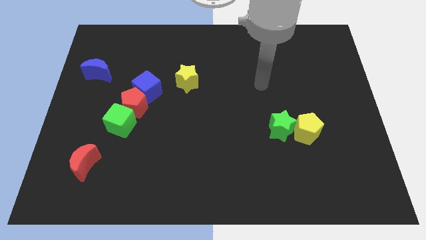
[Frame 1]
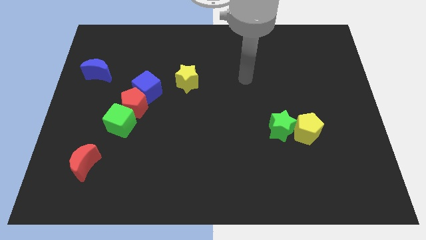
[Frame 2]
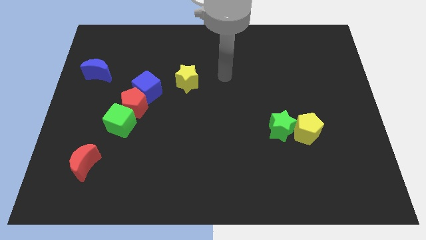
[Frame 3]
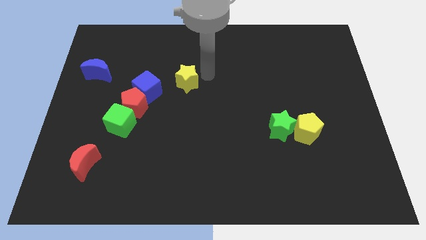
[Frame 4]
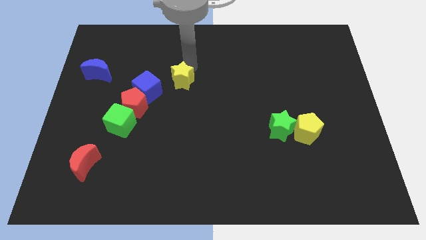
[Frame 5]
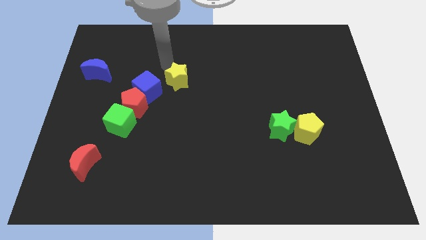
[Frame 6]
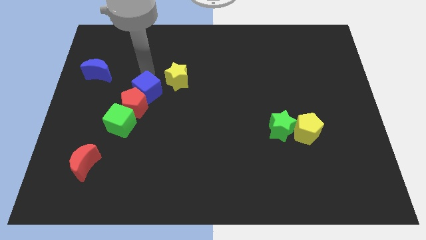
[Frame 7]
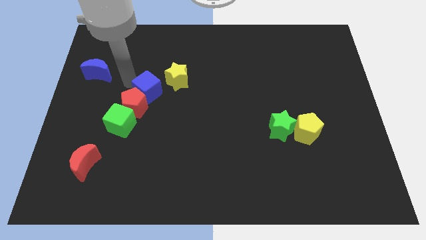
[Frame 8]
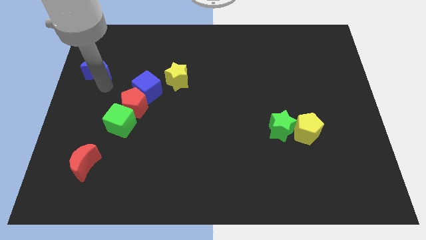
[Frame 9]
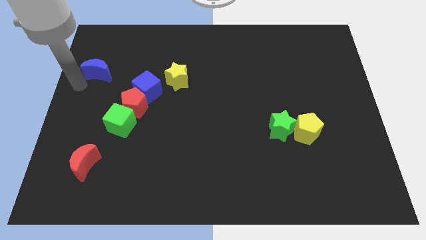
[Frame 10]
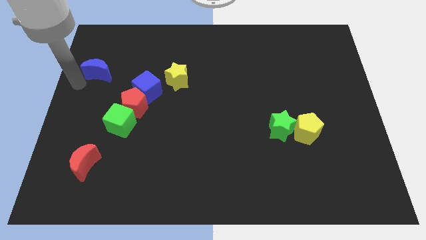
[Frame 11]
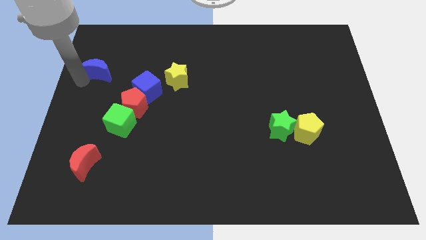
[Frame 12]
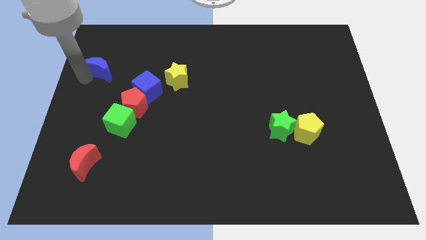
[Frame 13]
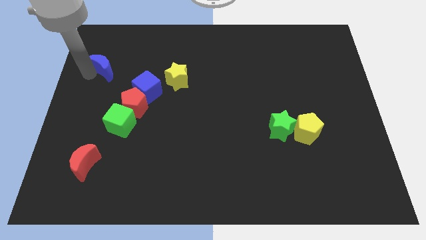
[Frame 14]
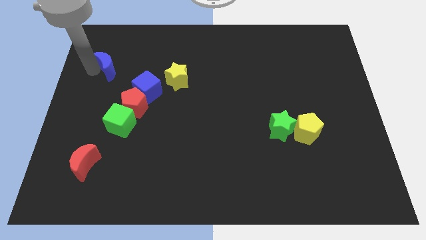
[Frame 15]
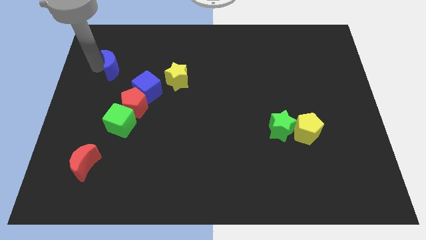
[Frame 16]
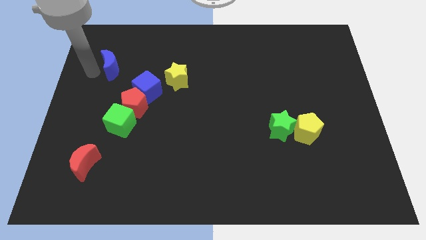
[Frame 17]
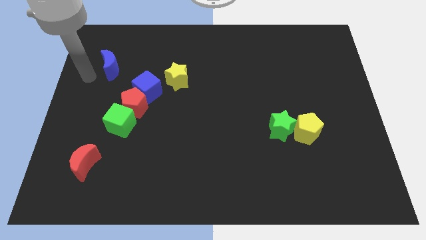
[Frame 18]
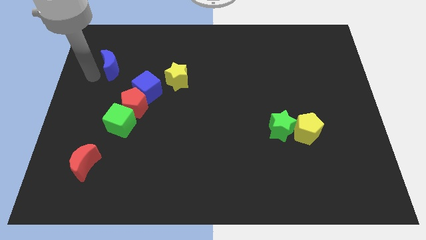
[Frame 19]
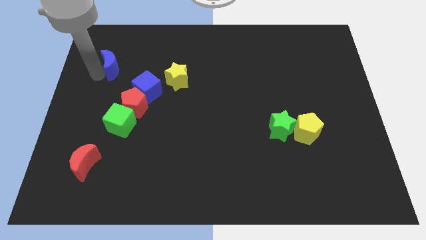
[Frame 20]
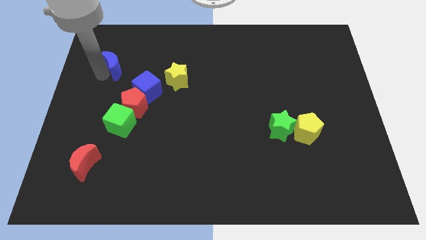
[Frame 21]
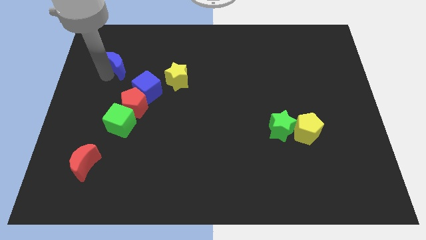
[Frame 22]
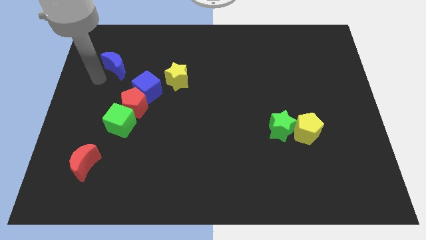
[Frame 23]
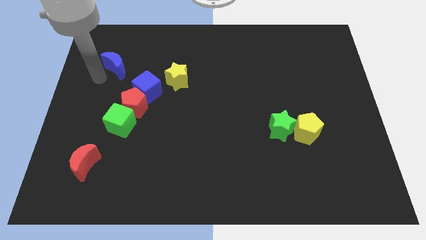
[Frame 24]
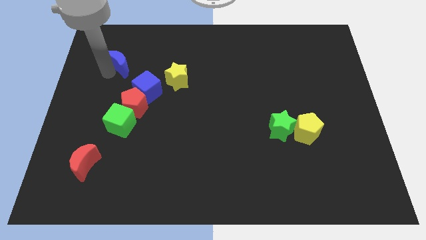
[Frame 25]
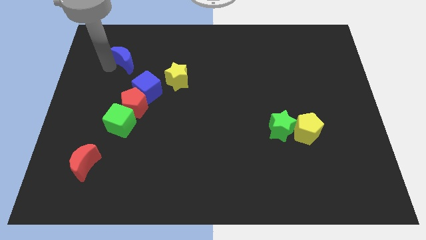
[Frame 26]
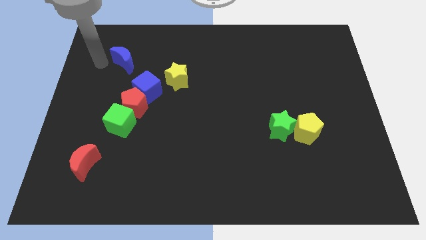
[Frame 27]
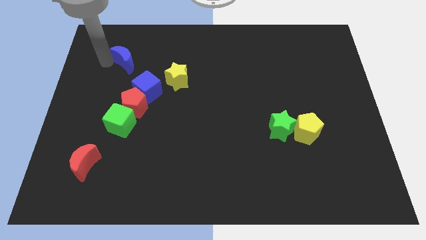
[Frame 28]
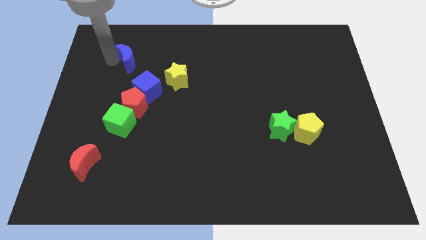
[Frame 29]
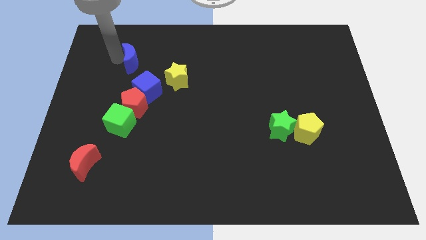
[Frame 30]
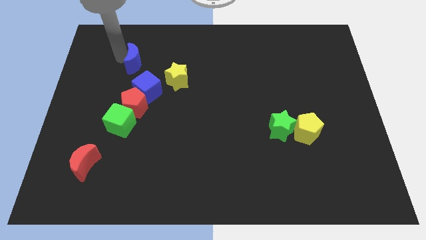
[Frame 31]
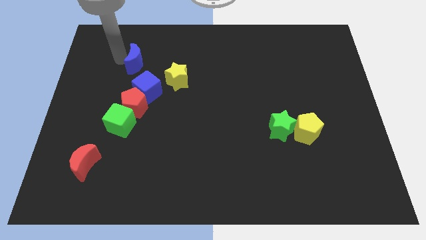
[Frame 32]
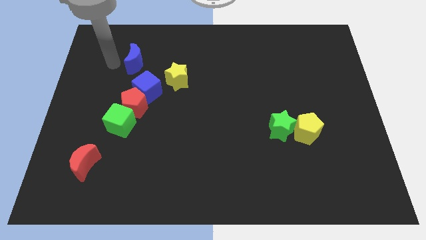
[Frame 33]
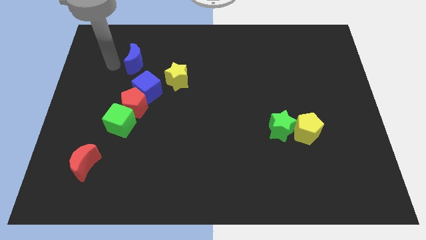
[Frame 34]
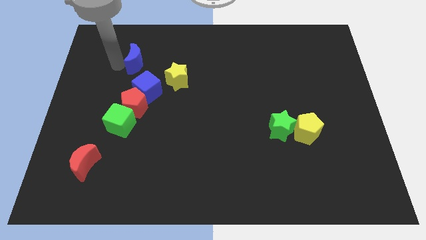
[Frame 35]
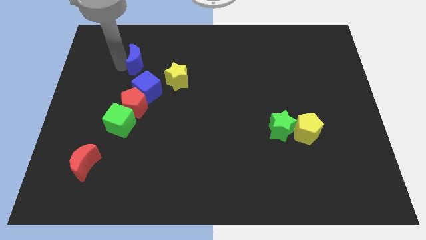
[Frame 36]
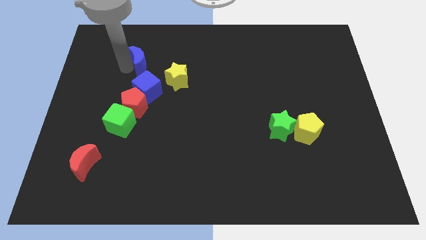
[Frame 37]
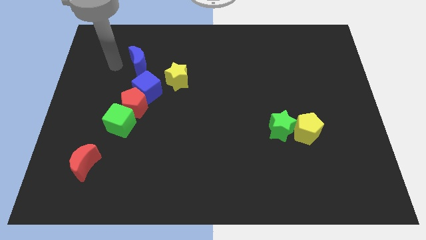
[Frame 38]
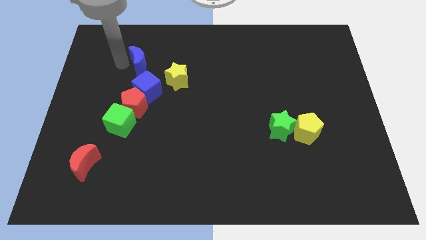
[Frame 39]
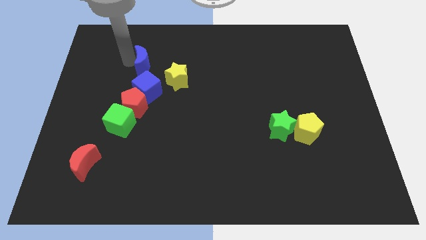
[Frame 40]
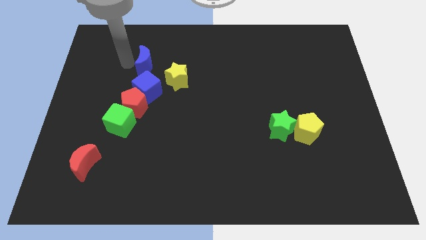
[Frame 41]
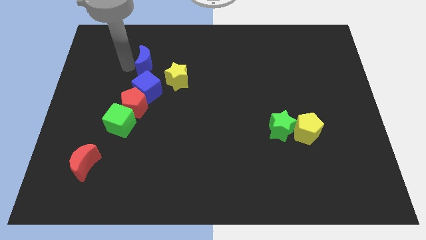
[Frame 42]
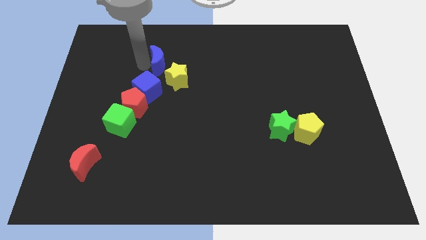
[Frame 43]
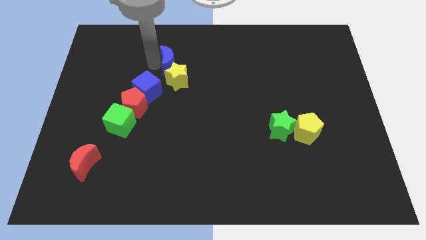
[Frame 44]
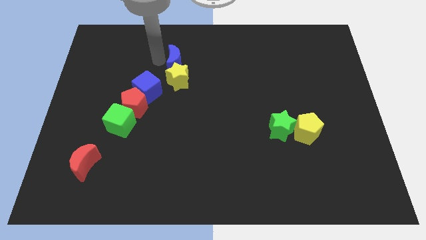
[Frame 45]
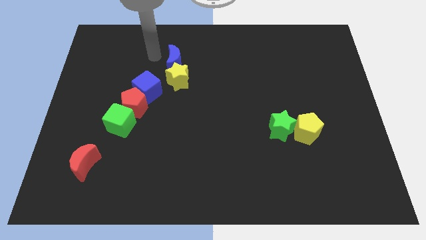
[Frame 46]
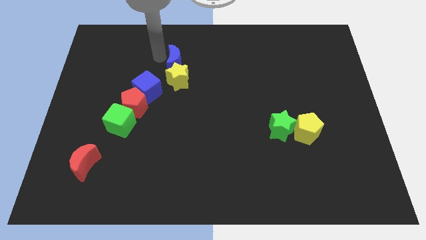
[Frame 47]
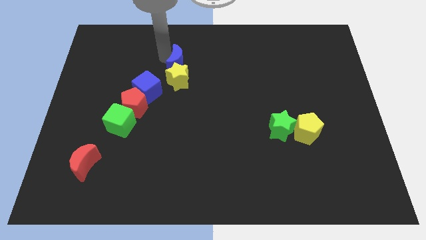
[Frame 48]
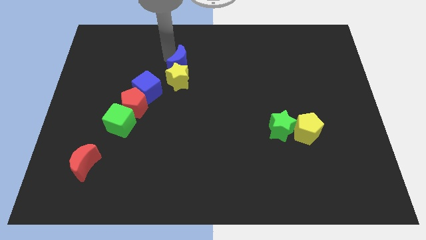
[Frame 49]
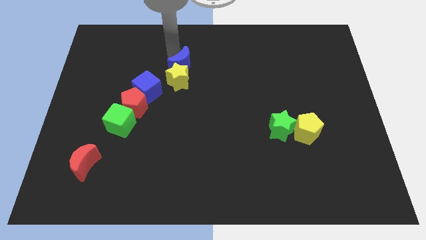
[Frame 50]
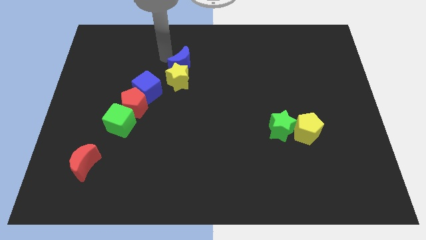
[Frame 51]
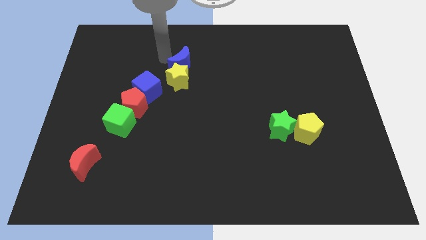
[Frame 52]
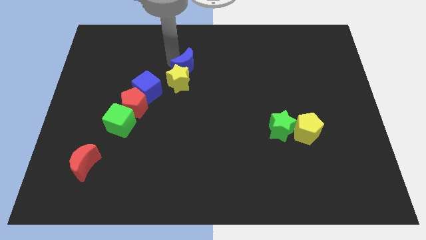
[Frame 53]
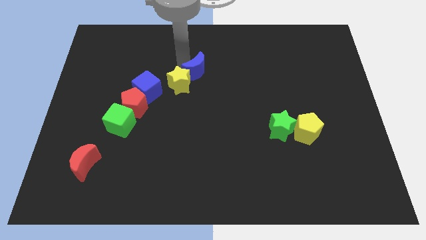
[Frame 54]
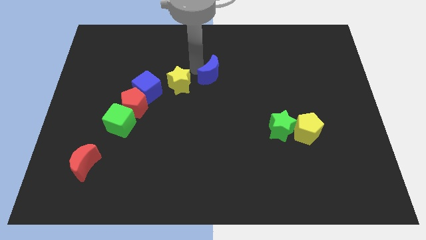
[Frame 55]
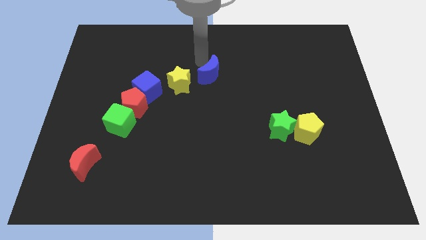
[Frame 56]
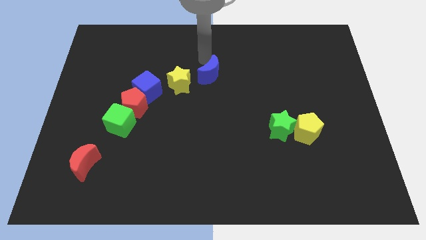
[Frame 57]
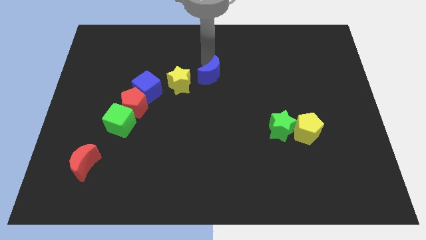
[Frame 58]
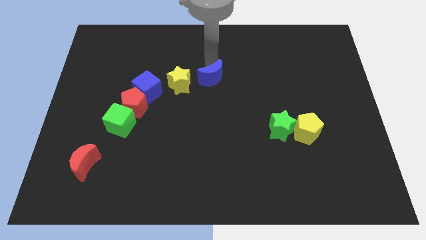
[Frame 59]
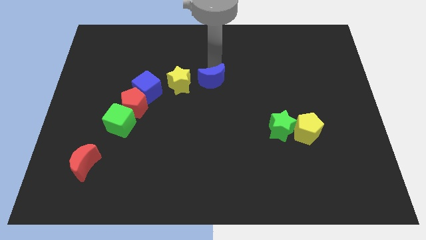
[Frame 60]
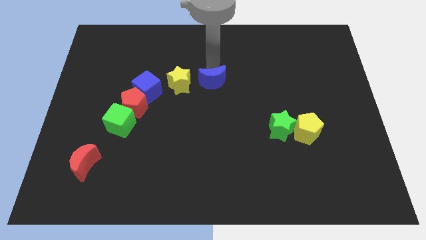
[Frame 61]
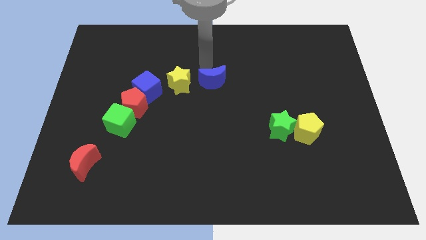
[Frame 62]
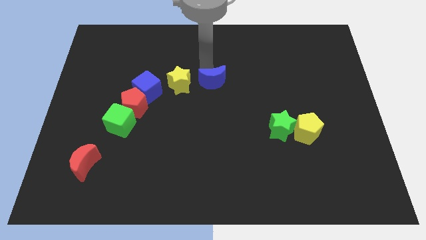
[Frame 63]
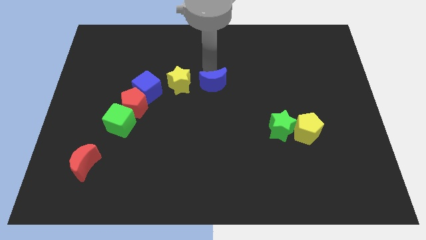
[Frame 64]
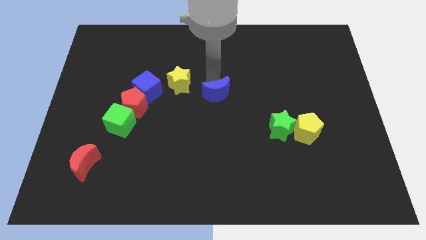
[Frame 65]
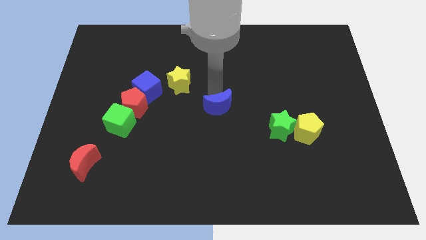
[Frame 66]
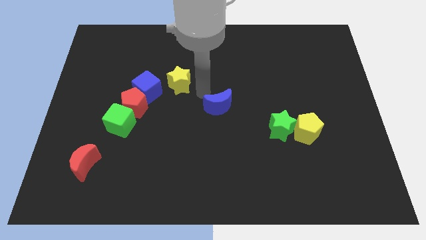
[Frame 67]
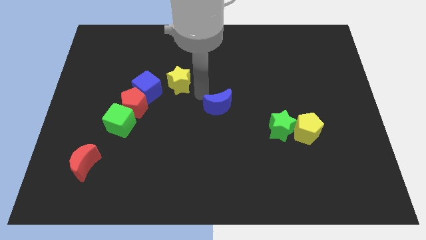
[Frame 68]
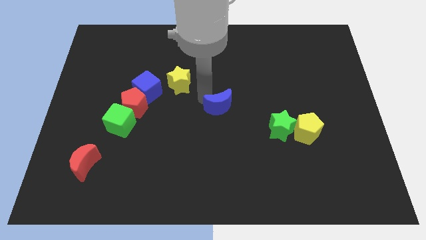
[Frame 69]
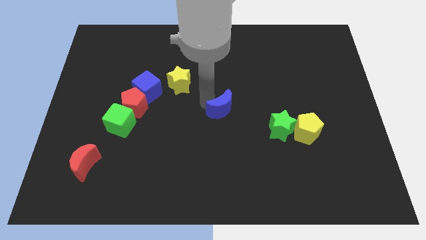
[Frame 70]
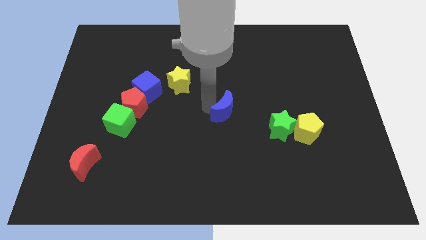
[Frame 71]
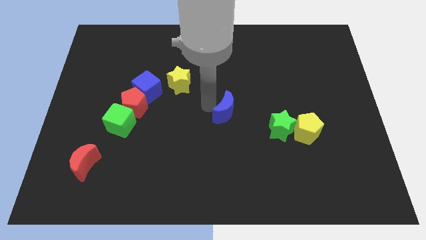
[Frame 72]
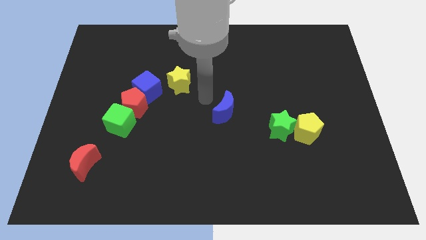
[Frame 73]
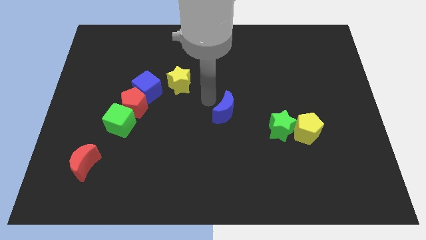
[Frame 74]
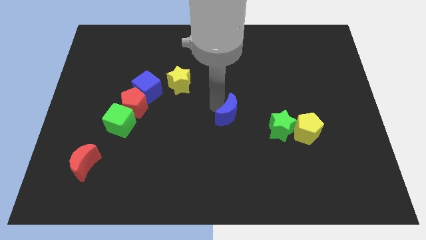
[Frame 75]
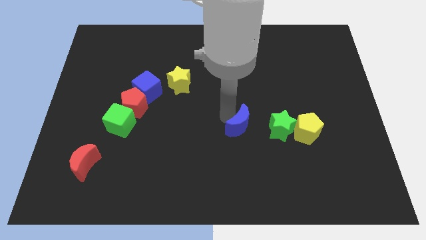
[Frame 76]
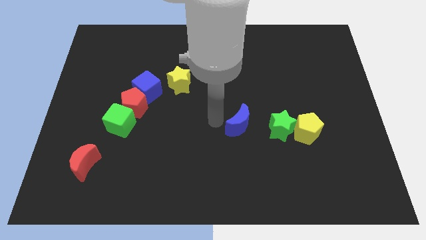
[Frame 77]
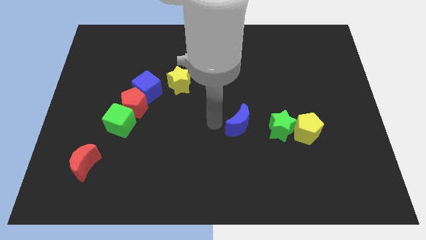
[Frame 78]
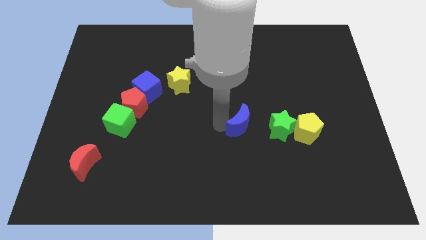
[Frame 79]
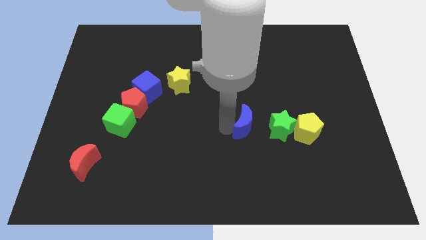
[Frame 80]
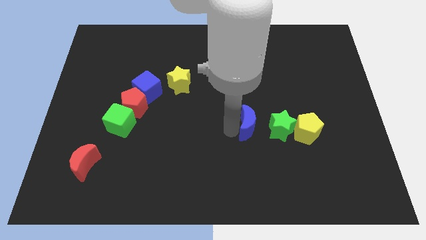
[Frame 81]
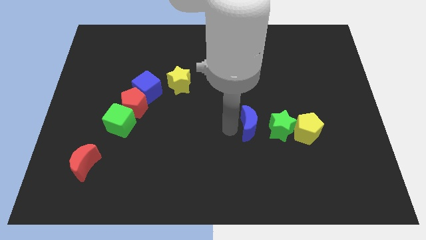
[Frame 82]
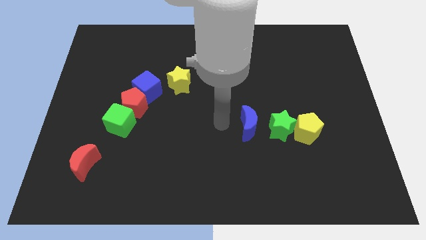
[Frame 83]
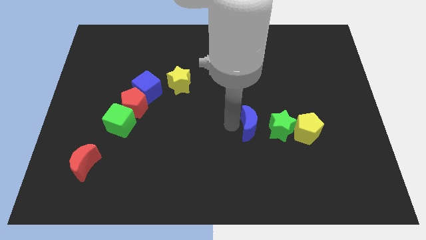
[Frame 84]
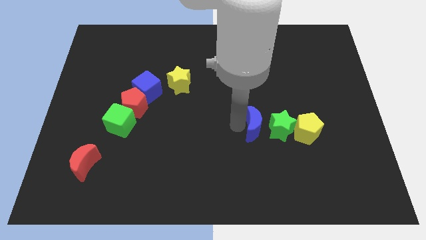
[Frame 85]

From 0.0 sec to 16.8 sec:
put the blue moon next to the green star
